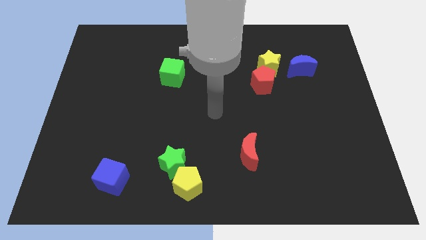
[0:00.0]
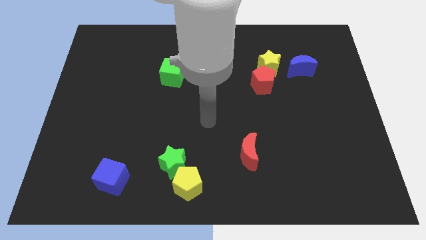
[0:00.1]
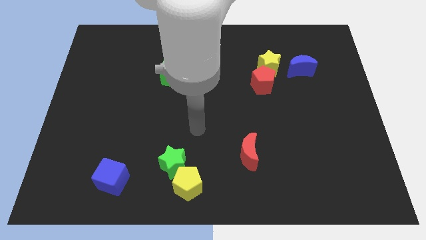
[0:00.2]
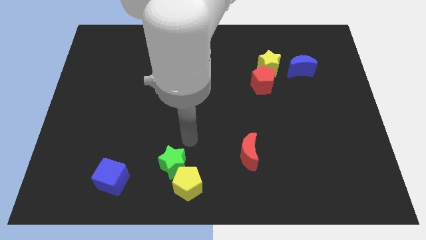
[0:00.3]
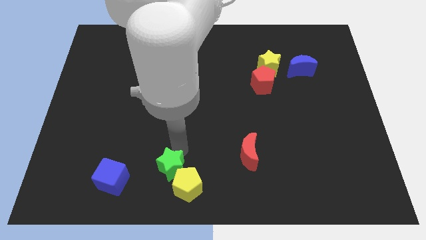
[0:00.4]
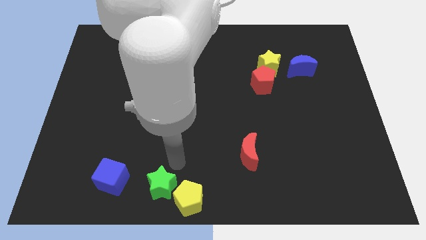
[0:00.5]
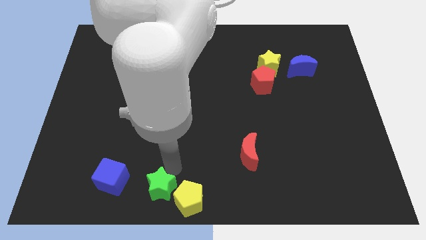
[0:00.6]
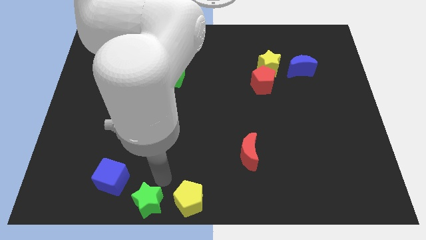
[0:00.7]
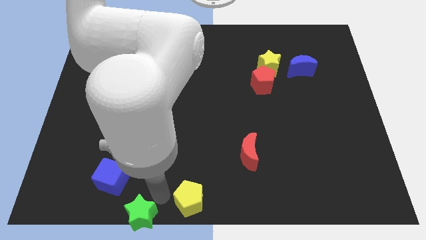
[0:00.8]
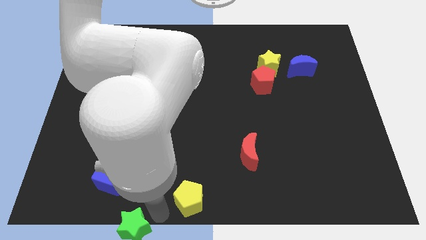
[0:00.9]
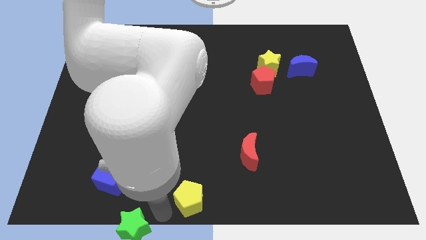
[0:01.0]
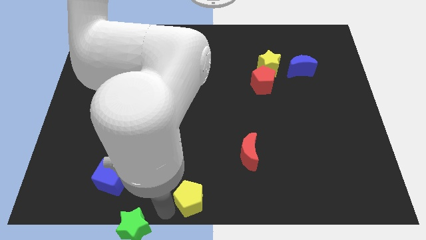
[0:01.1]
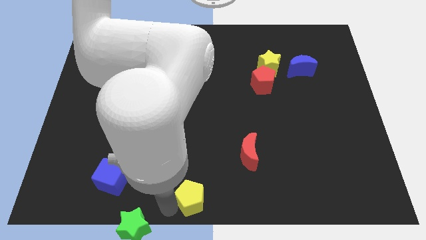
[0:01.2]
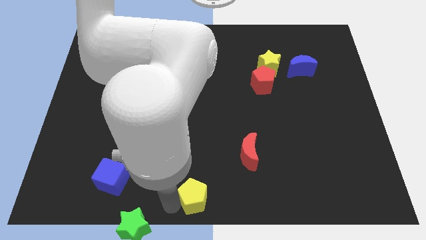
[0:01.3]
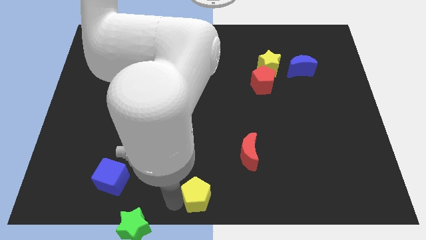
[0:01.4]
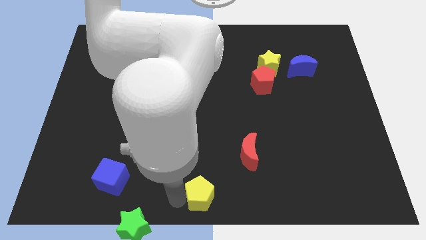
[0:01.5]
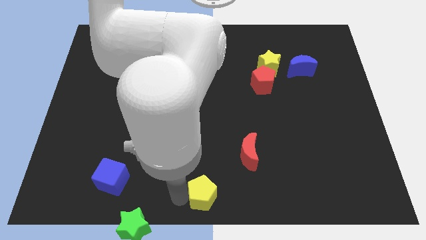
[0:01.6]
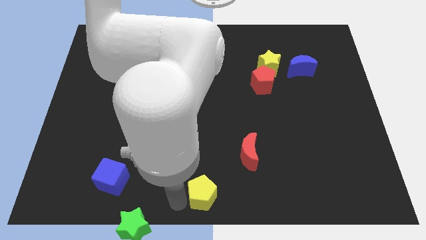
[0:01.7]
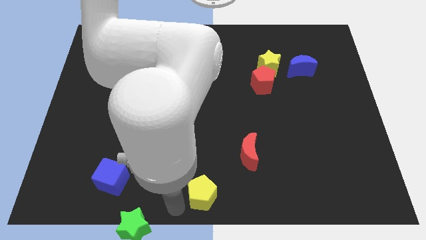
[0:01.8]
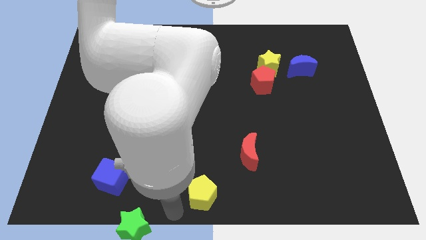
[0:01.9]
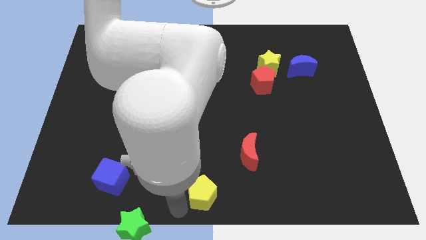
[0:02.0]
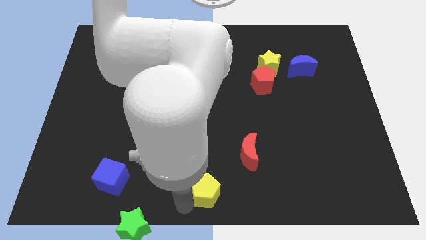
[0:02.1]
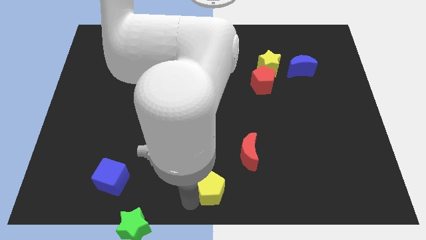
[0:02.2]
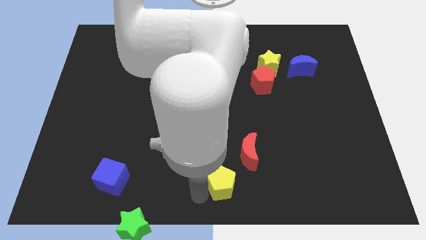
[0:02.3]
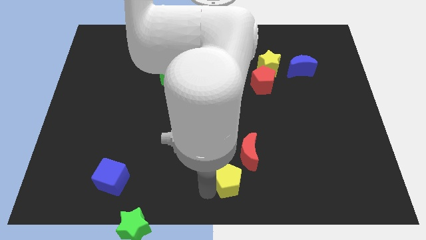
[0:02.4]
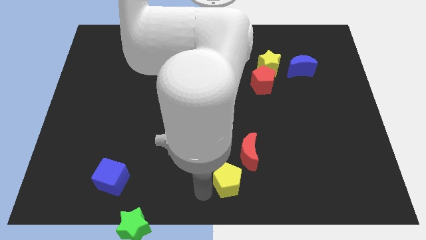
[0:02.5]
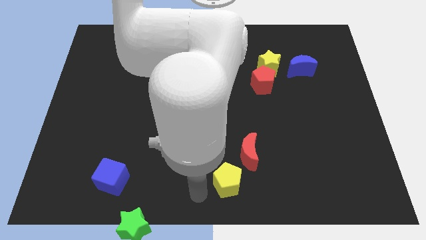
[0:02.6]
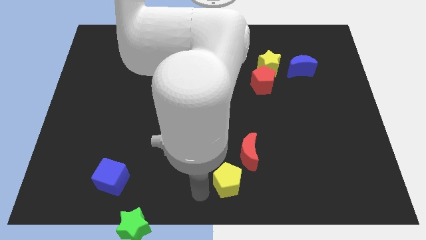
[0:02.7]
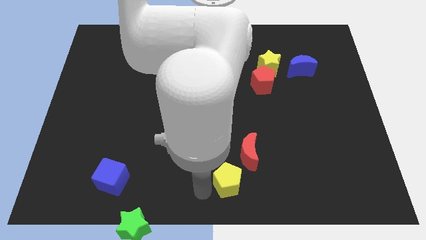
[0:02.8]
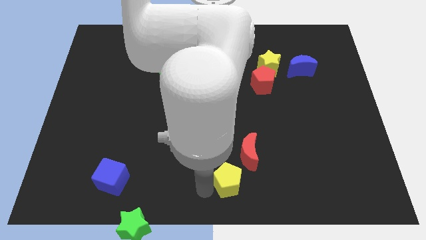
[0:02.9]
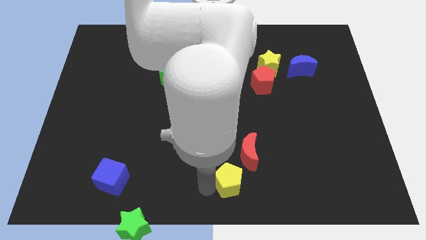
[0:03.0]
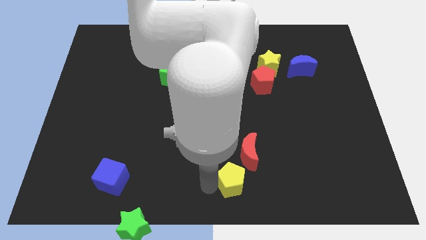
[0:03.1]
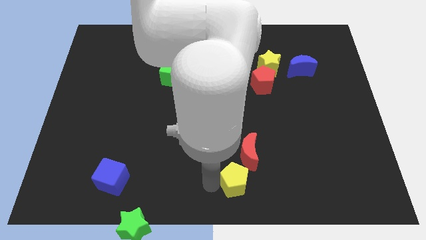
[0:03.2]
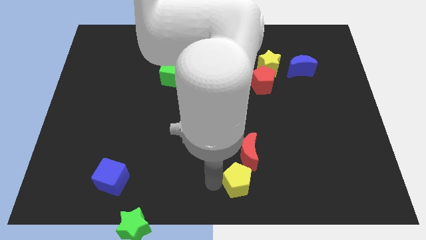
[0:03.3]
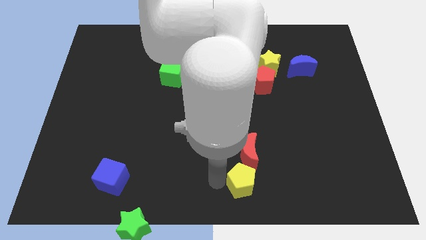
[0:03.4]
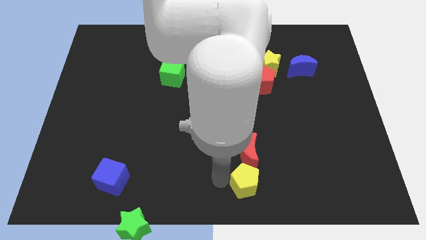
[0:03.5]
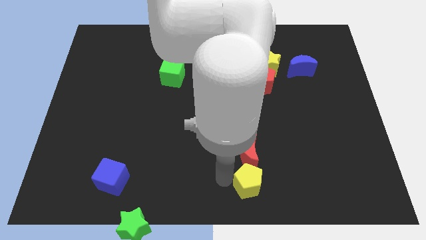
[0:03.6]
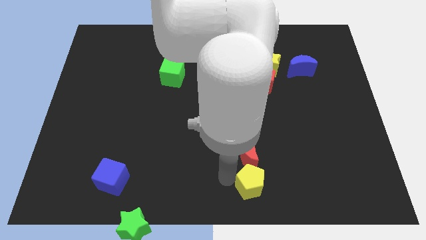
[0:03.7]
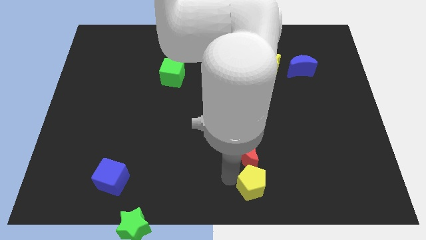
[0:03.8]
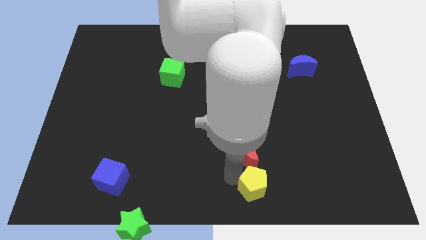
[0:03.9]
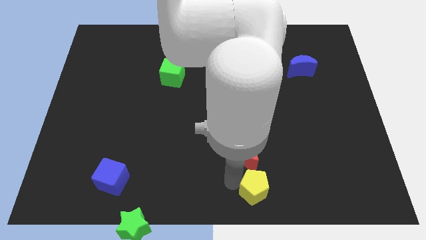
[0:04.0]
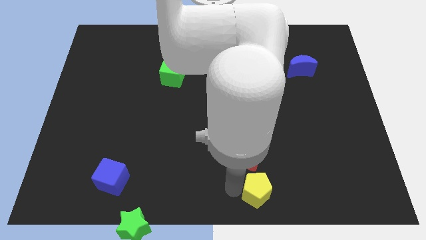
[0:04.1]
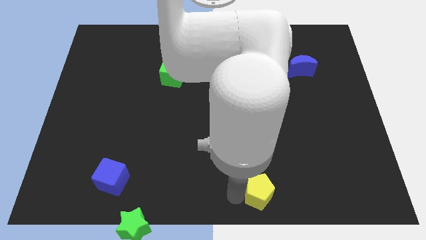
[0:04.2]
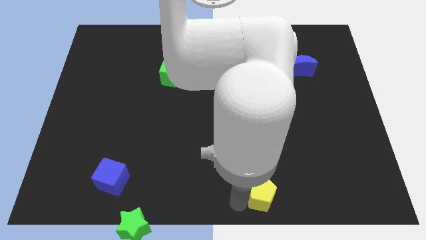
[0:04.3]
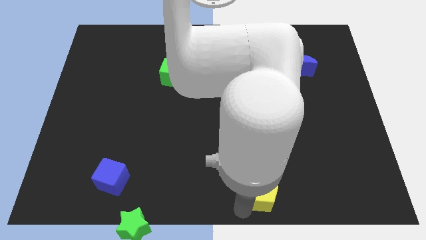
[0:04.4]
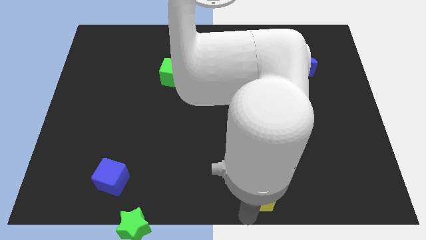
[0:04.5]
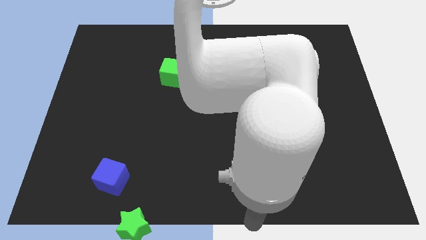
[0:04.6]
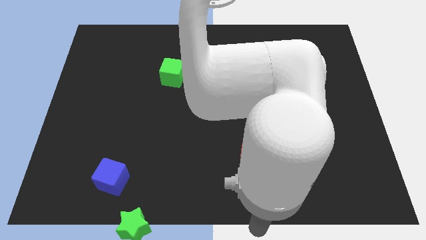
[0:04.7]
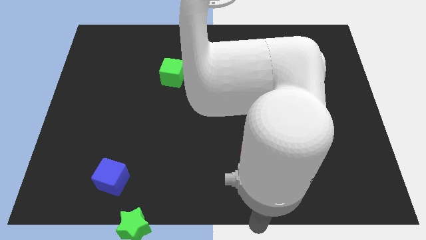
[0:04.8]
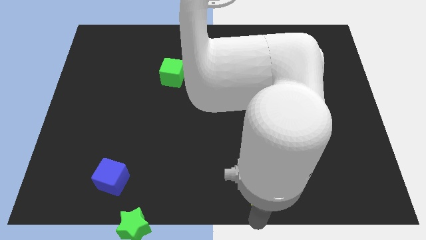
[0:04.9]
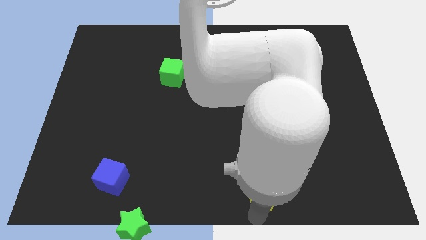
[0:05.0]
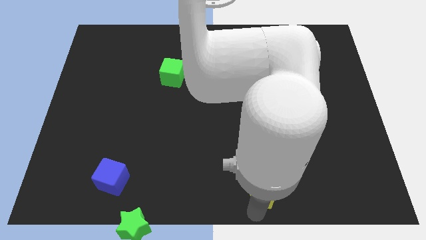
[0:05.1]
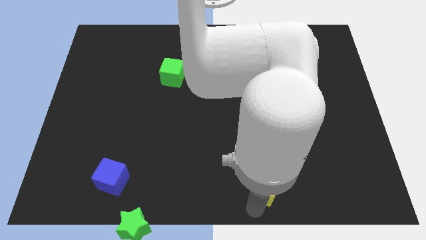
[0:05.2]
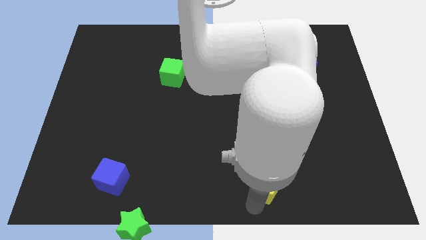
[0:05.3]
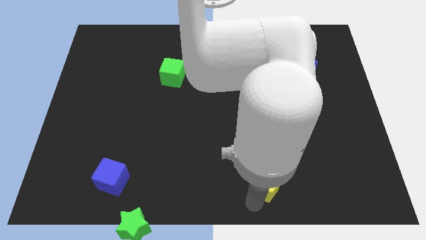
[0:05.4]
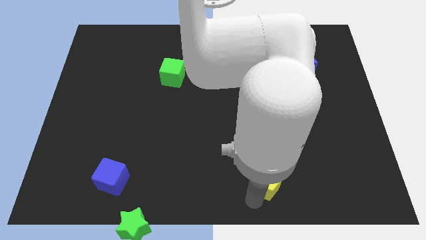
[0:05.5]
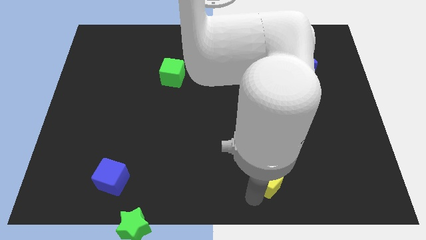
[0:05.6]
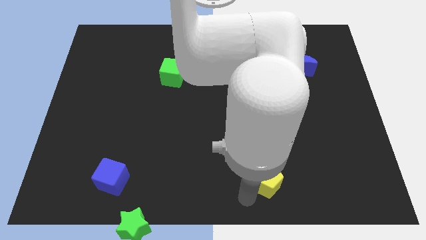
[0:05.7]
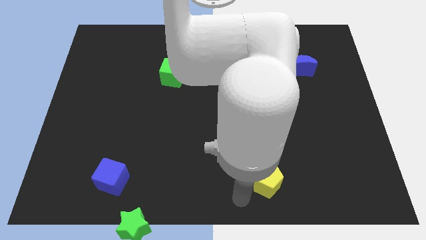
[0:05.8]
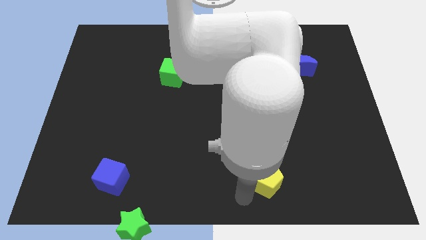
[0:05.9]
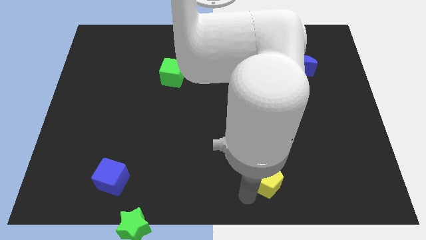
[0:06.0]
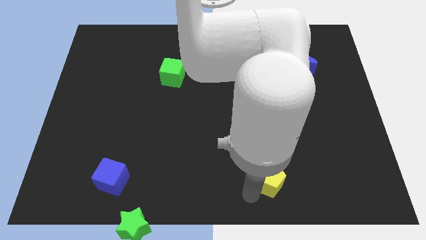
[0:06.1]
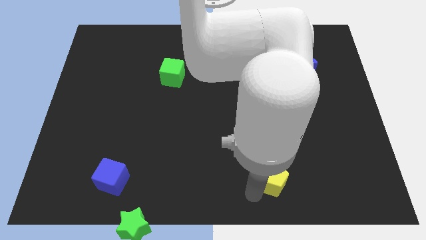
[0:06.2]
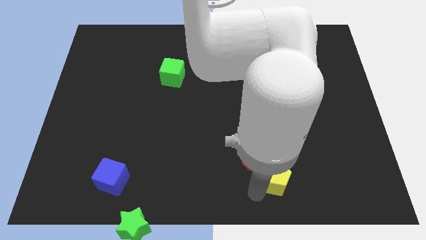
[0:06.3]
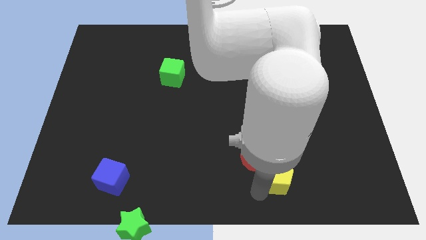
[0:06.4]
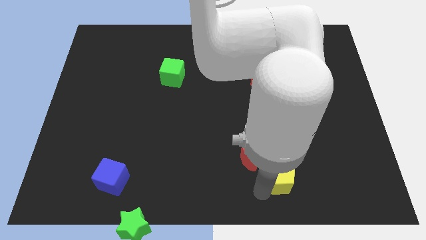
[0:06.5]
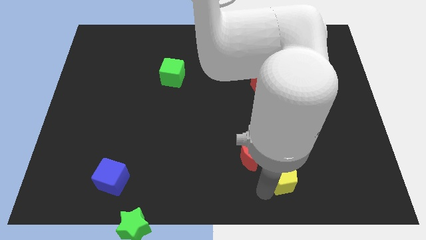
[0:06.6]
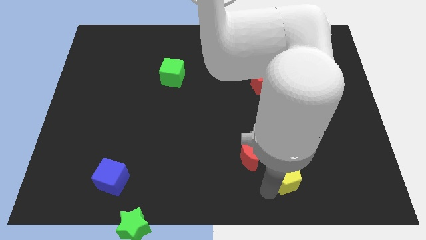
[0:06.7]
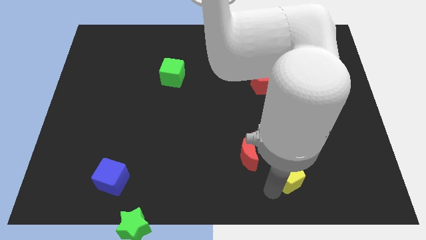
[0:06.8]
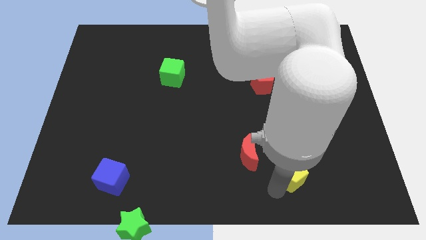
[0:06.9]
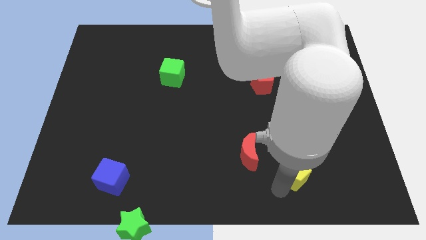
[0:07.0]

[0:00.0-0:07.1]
move the yellow pentagon to the right side of the red moon

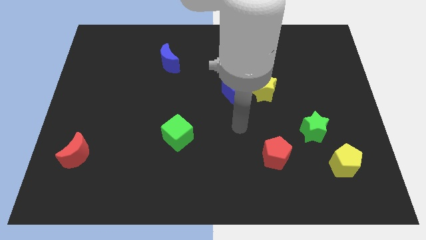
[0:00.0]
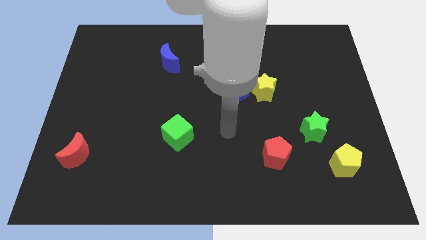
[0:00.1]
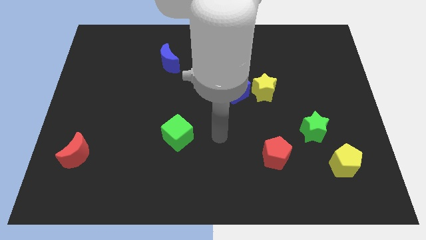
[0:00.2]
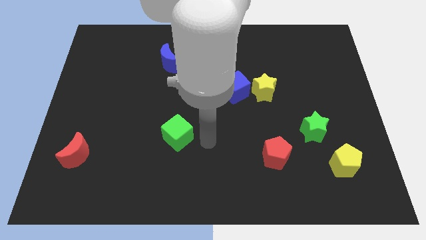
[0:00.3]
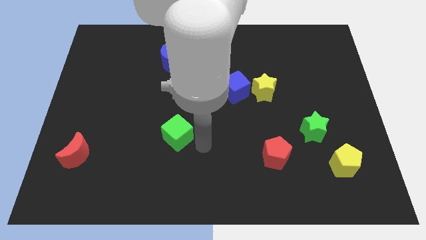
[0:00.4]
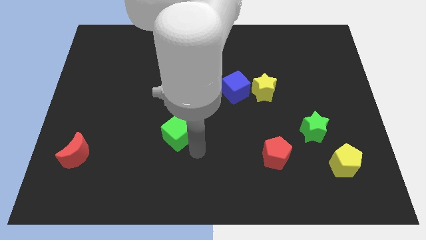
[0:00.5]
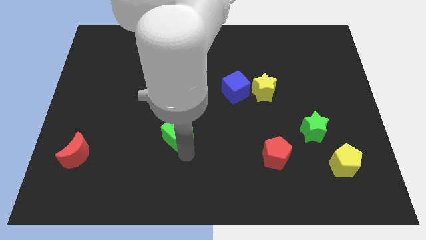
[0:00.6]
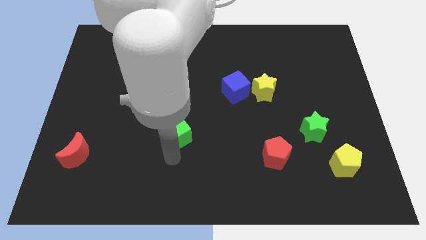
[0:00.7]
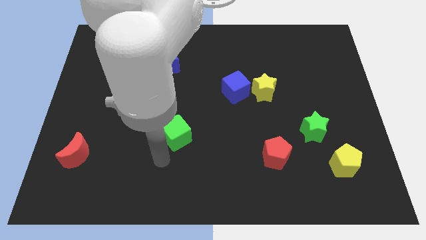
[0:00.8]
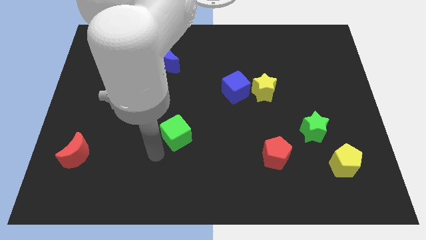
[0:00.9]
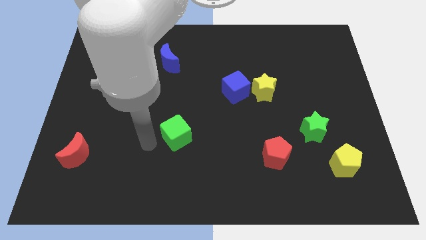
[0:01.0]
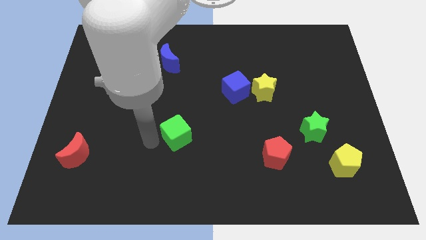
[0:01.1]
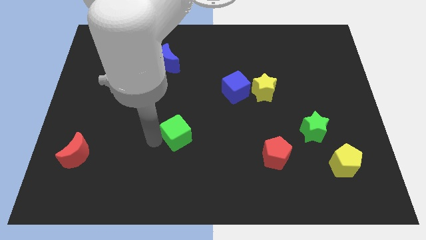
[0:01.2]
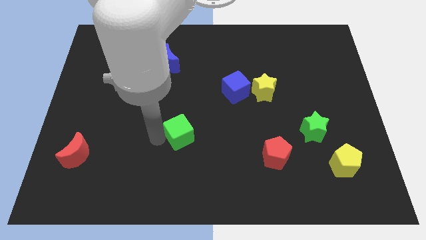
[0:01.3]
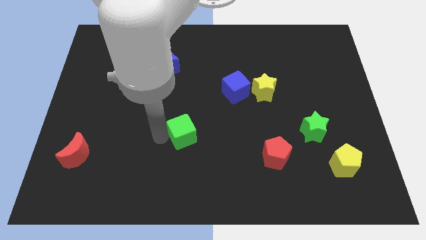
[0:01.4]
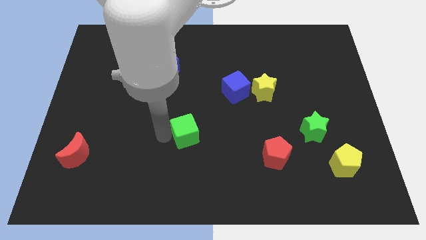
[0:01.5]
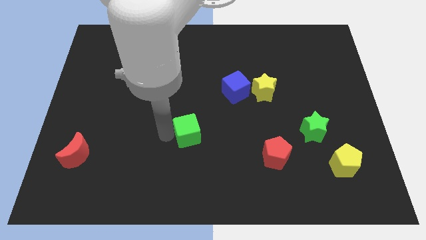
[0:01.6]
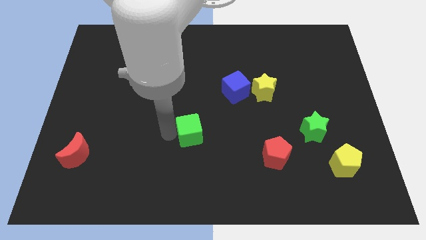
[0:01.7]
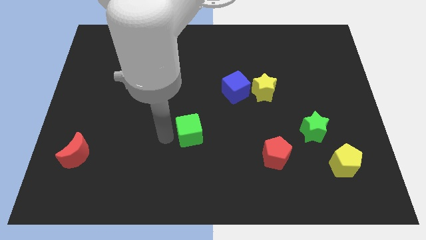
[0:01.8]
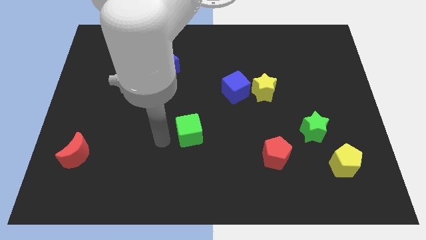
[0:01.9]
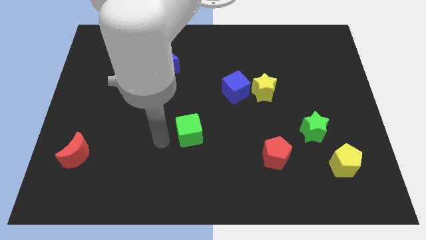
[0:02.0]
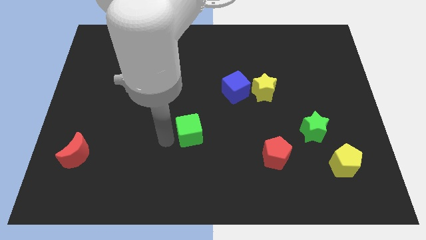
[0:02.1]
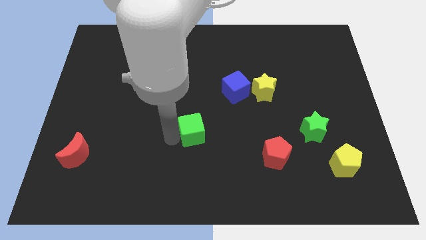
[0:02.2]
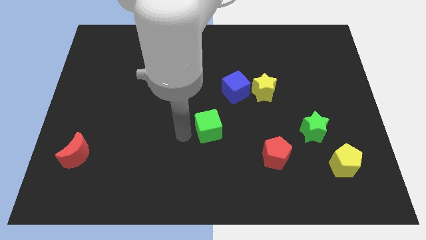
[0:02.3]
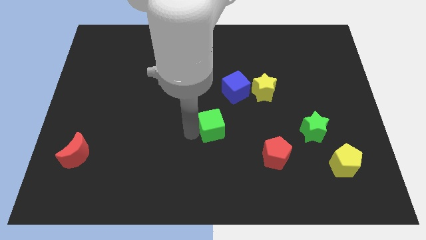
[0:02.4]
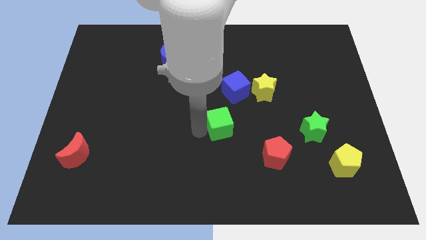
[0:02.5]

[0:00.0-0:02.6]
push the green cube to the bottom of the blue cube
